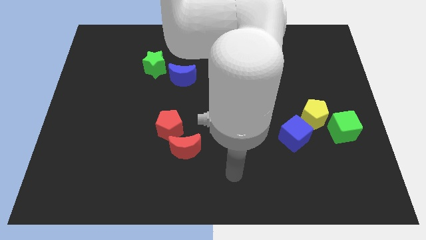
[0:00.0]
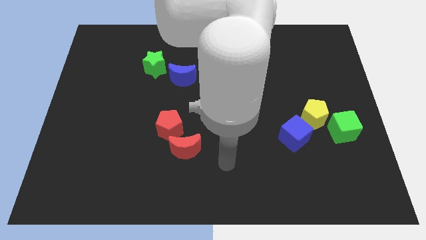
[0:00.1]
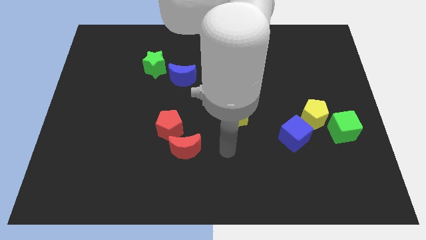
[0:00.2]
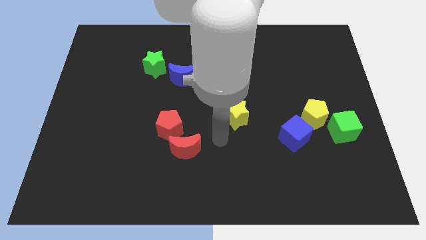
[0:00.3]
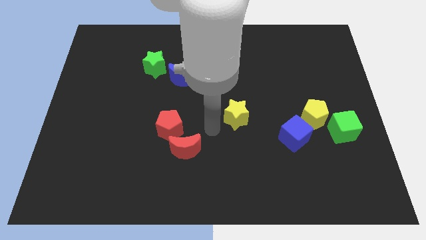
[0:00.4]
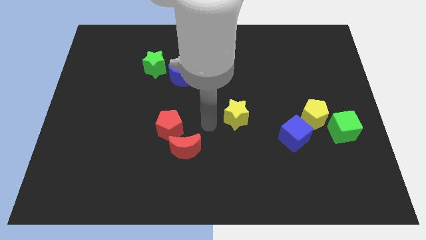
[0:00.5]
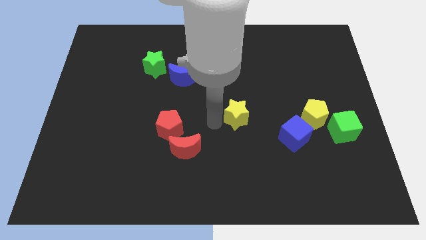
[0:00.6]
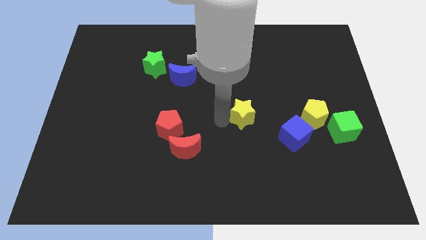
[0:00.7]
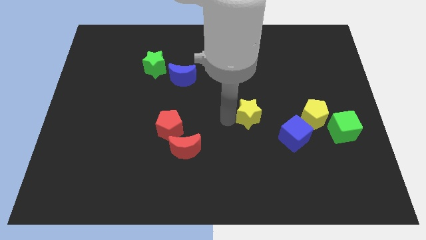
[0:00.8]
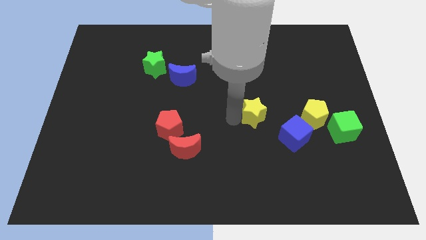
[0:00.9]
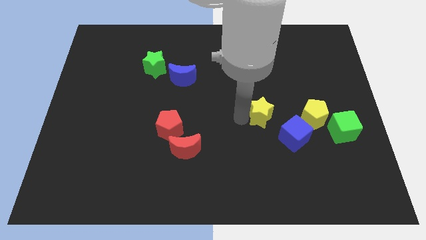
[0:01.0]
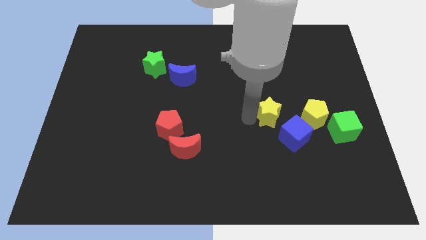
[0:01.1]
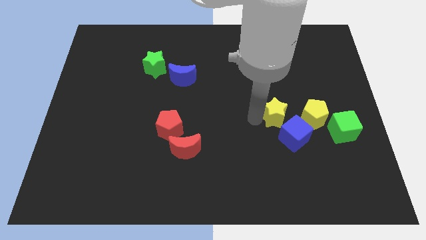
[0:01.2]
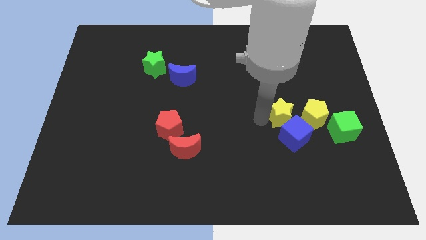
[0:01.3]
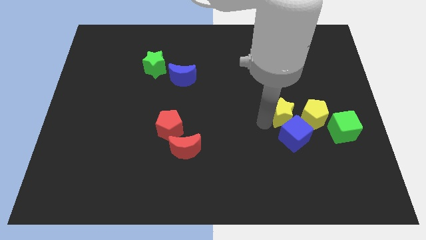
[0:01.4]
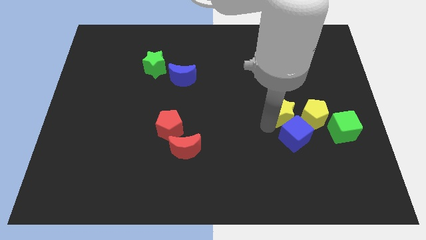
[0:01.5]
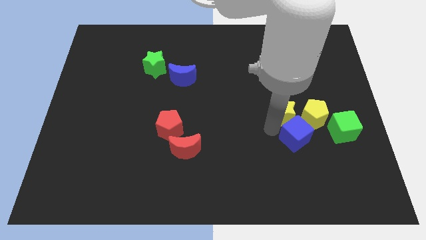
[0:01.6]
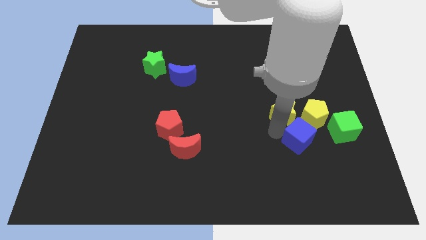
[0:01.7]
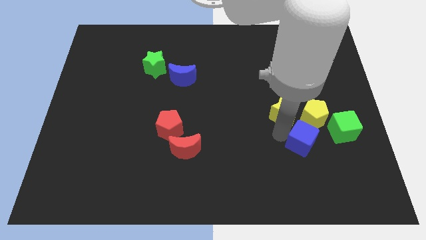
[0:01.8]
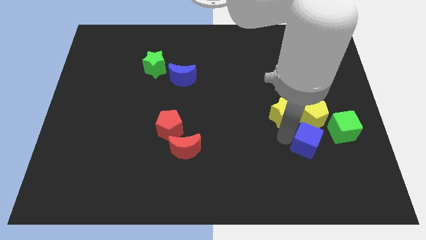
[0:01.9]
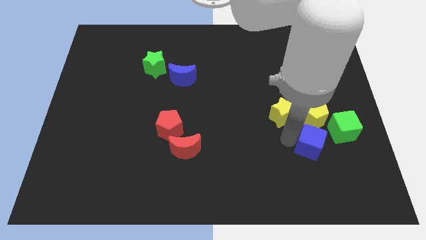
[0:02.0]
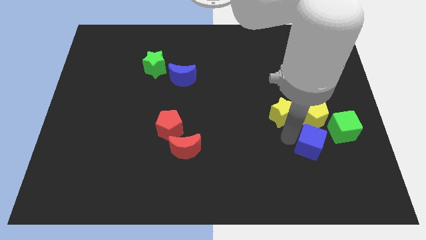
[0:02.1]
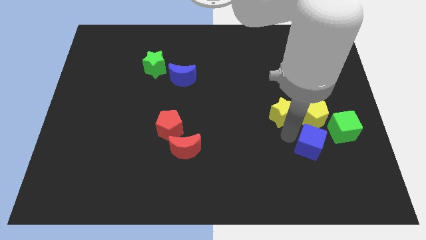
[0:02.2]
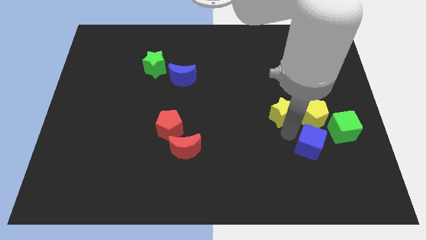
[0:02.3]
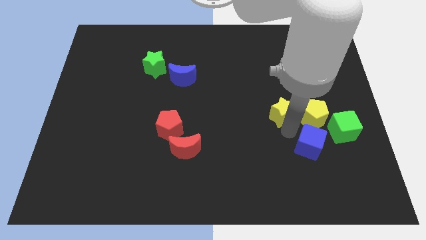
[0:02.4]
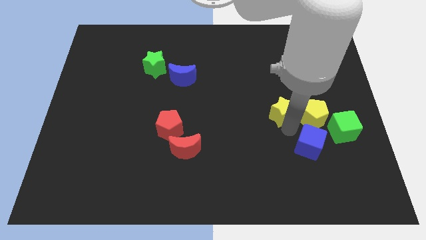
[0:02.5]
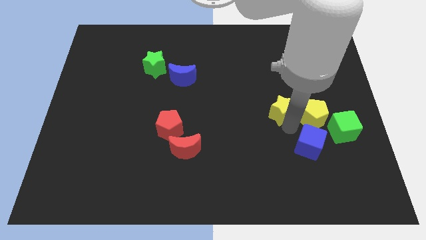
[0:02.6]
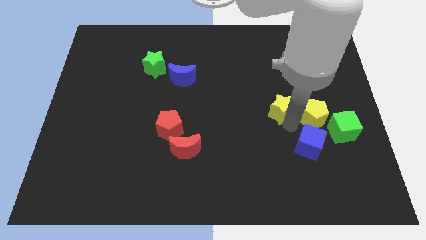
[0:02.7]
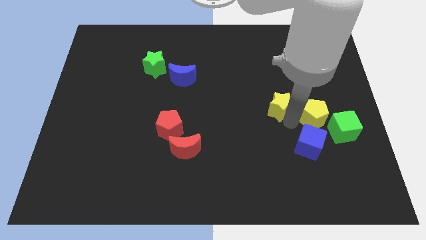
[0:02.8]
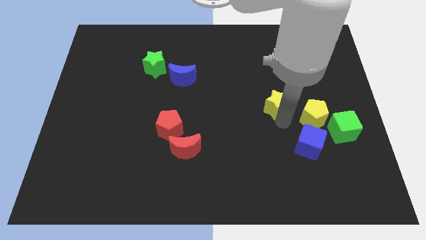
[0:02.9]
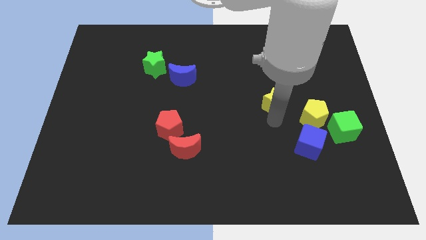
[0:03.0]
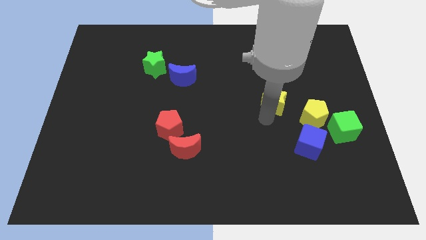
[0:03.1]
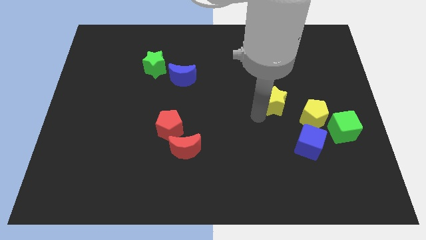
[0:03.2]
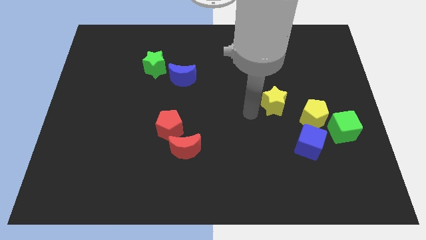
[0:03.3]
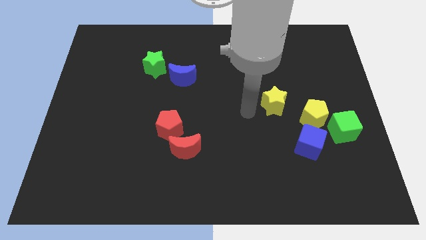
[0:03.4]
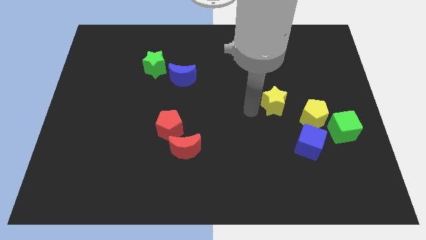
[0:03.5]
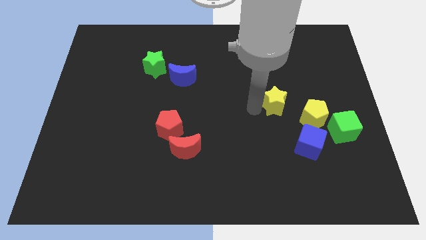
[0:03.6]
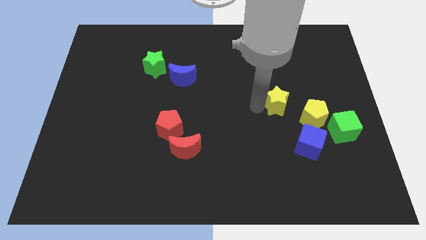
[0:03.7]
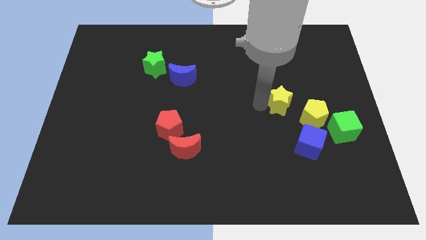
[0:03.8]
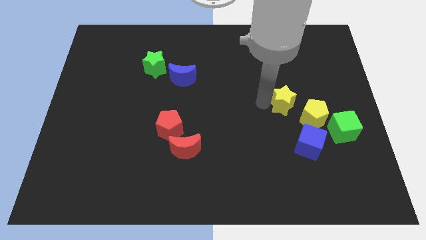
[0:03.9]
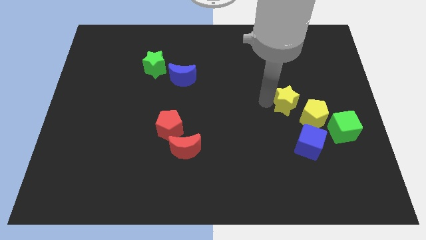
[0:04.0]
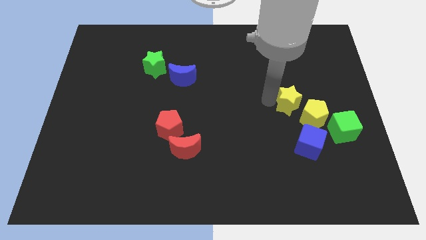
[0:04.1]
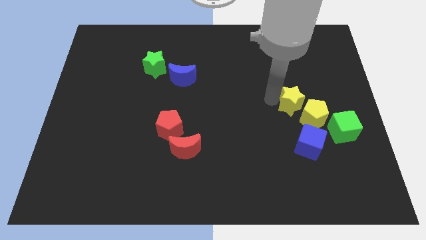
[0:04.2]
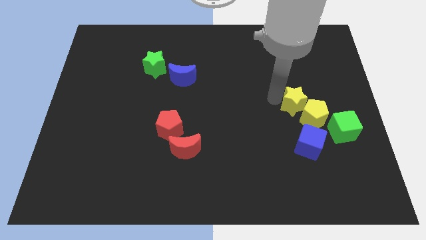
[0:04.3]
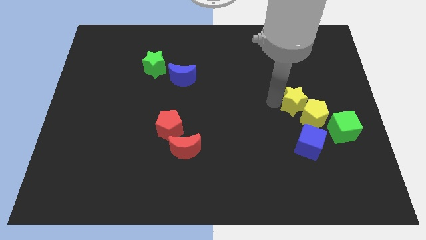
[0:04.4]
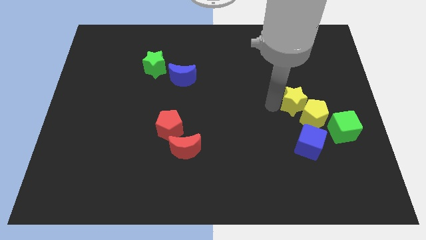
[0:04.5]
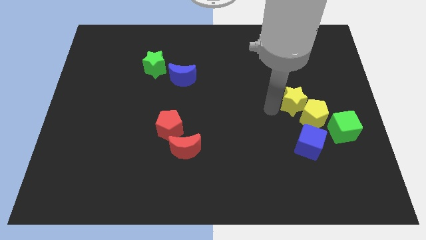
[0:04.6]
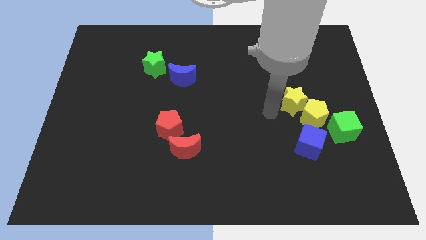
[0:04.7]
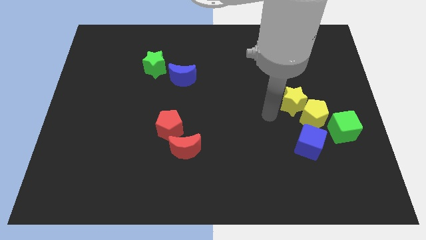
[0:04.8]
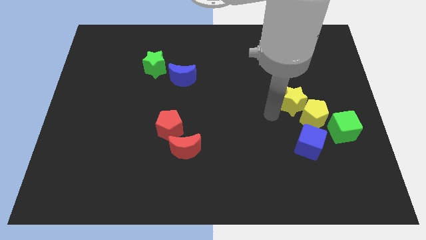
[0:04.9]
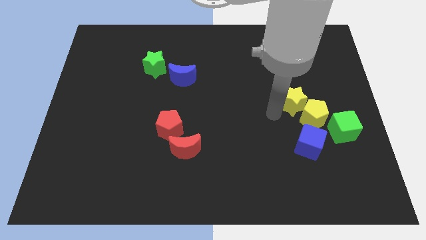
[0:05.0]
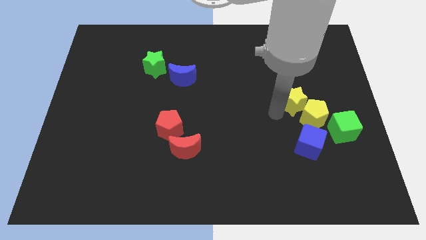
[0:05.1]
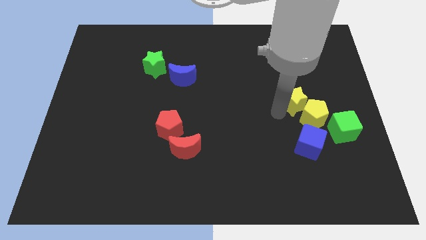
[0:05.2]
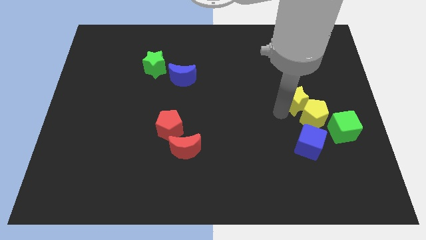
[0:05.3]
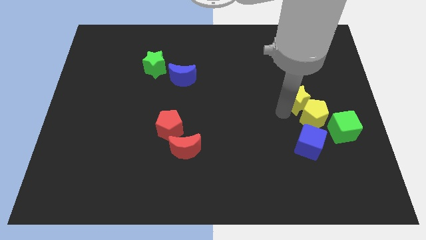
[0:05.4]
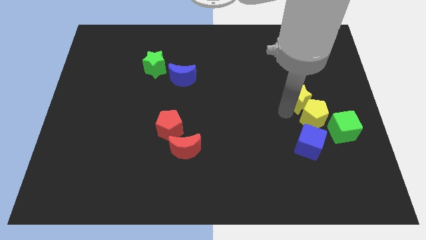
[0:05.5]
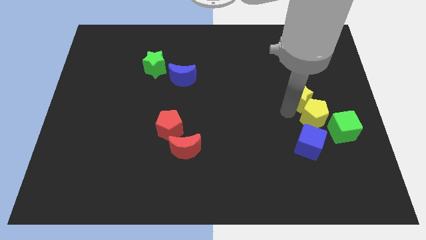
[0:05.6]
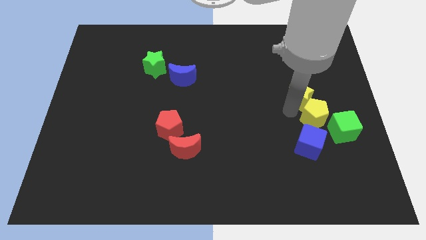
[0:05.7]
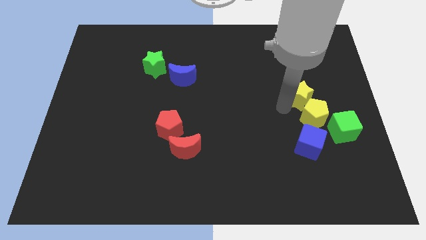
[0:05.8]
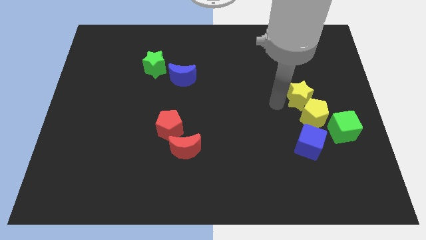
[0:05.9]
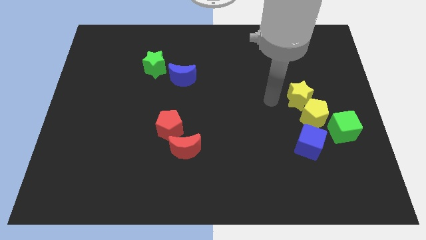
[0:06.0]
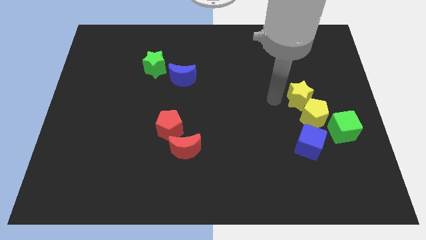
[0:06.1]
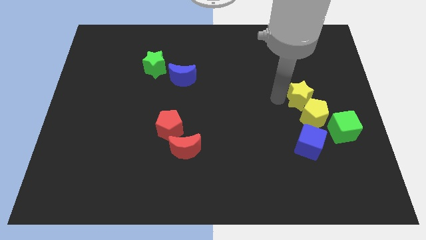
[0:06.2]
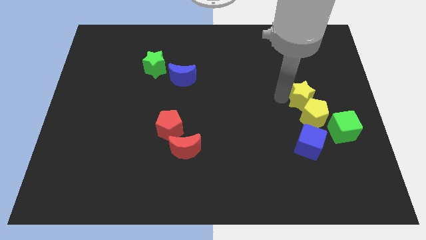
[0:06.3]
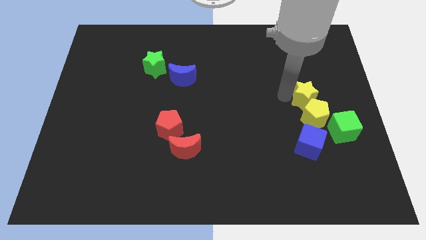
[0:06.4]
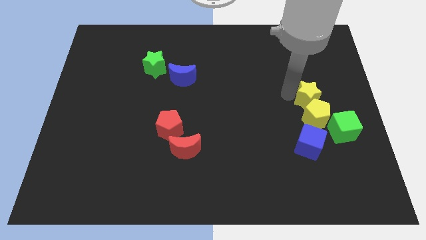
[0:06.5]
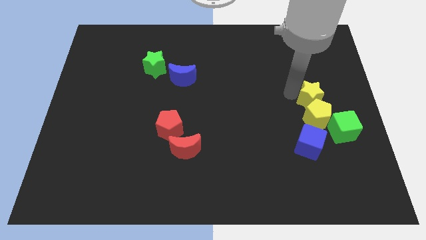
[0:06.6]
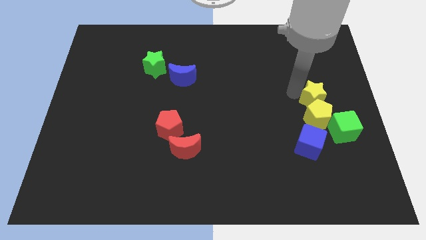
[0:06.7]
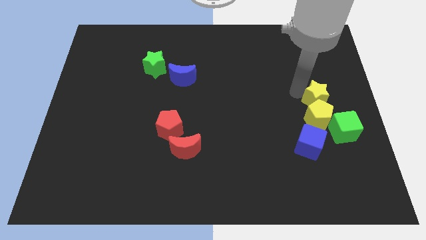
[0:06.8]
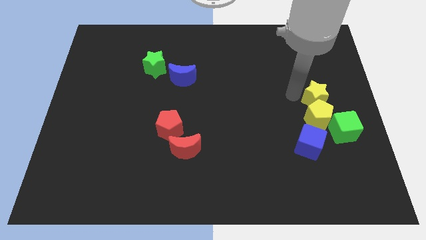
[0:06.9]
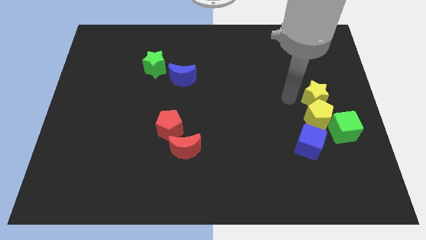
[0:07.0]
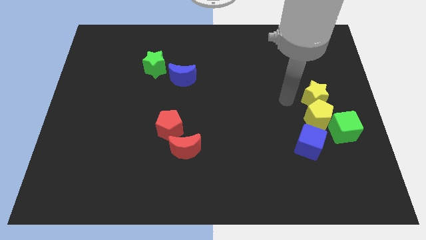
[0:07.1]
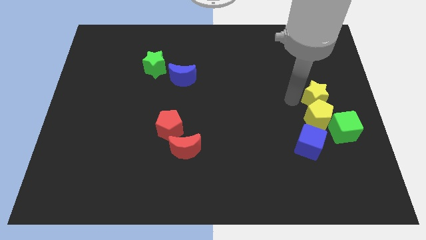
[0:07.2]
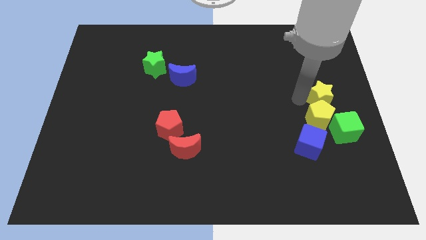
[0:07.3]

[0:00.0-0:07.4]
push the yellow star to the right side of the board
